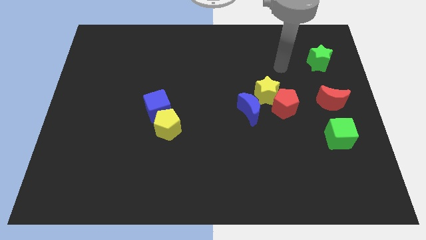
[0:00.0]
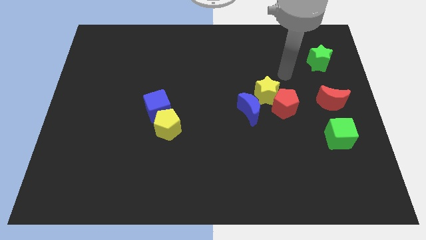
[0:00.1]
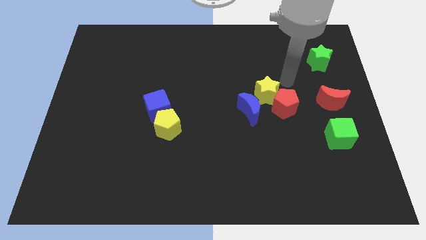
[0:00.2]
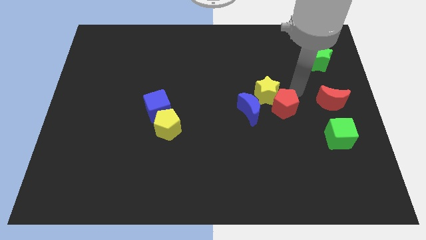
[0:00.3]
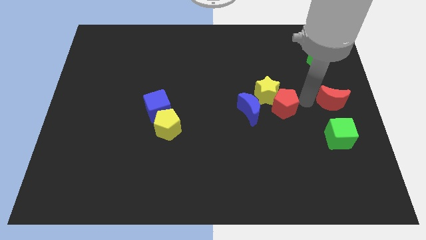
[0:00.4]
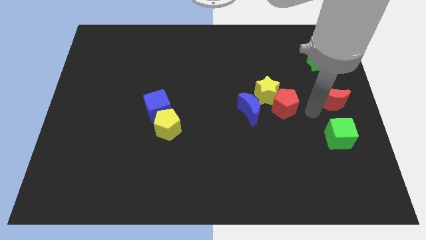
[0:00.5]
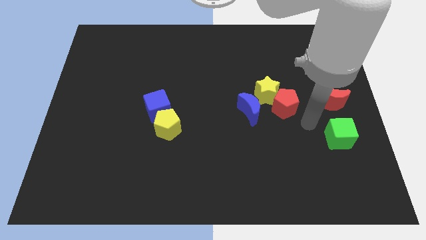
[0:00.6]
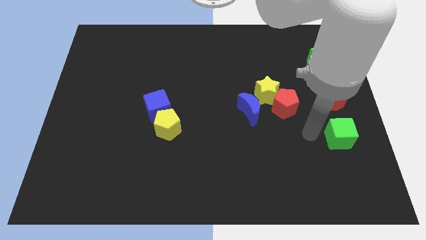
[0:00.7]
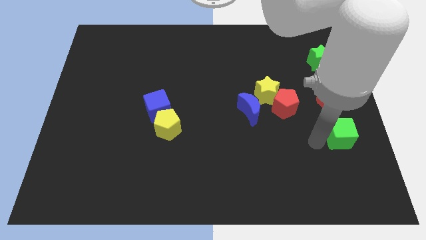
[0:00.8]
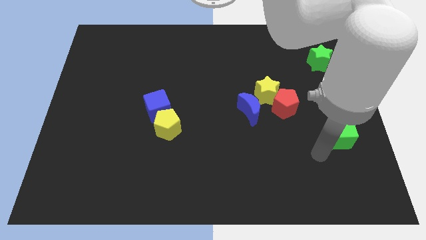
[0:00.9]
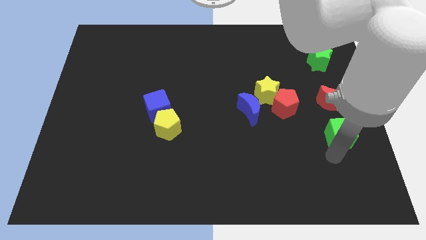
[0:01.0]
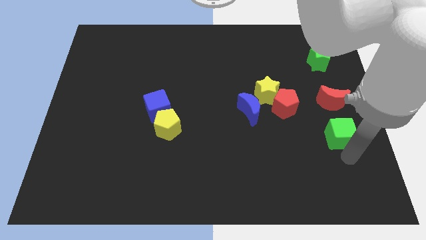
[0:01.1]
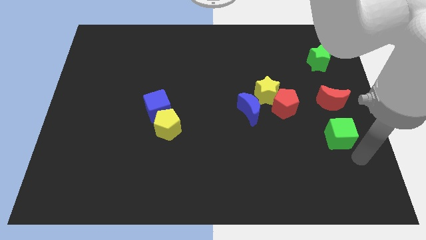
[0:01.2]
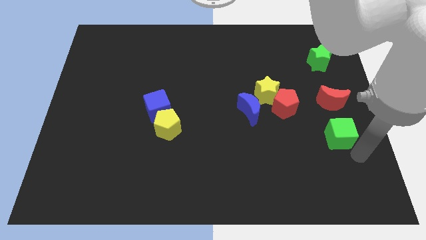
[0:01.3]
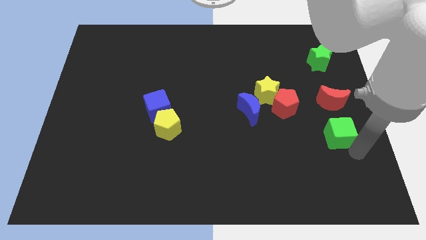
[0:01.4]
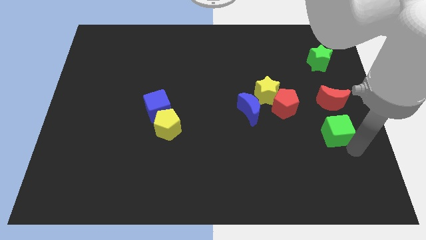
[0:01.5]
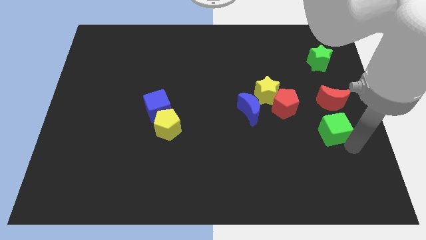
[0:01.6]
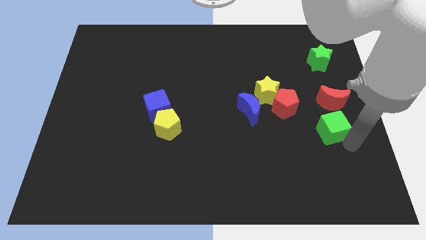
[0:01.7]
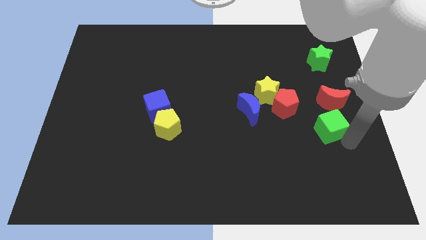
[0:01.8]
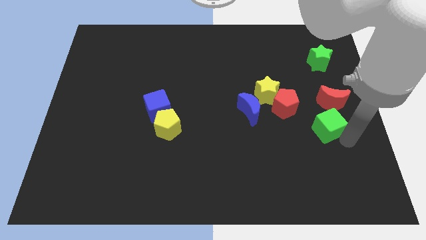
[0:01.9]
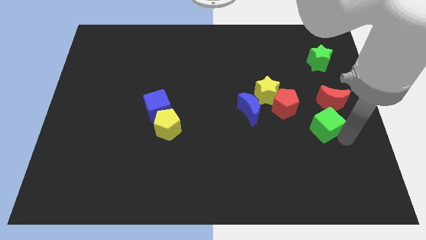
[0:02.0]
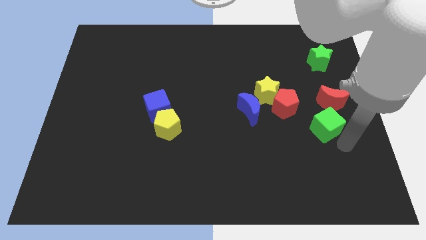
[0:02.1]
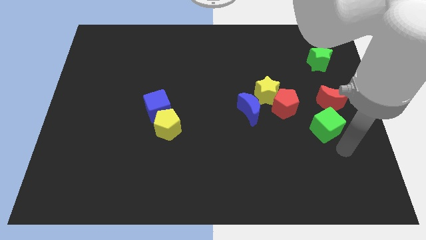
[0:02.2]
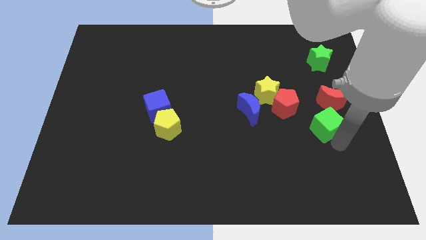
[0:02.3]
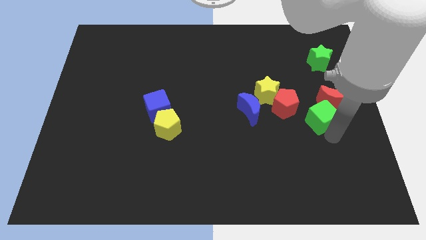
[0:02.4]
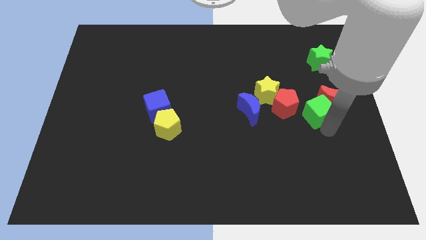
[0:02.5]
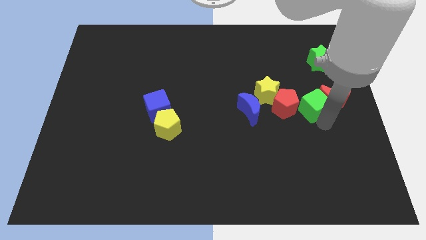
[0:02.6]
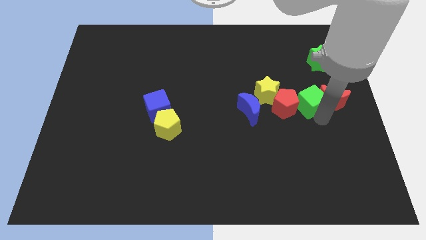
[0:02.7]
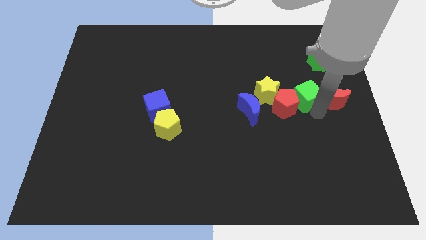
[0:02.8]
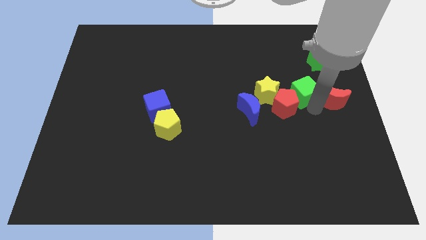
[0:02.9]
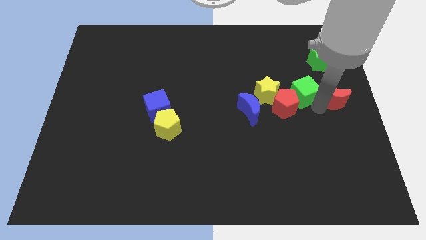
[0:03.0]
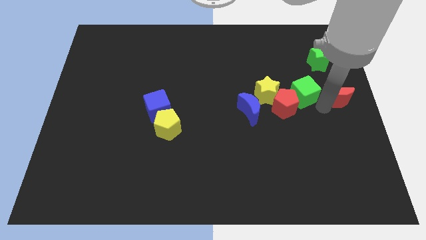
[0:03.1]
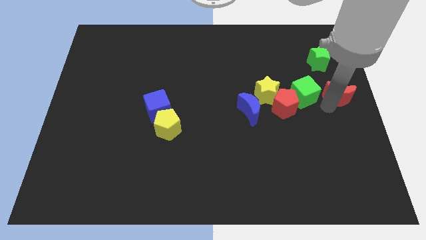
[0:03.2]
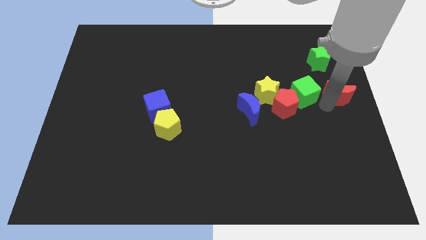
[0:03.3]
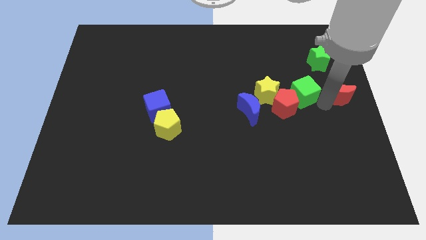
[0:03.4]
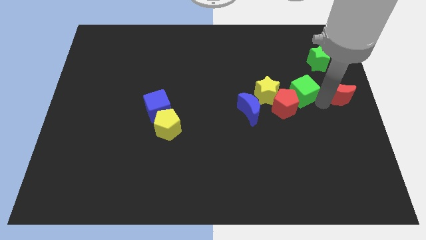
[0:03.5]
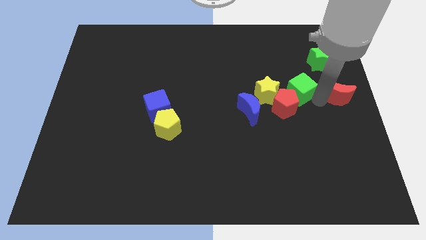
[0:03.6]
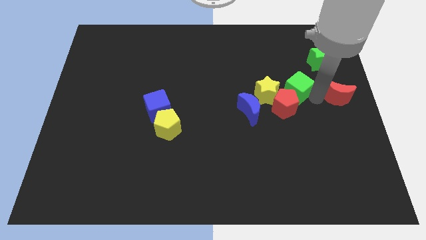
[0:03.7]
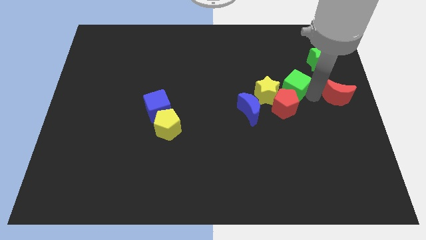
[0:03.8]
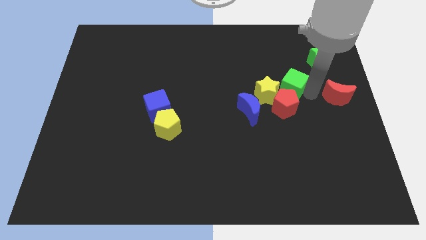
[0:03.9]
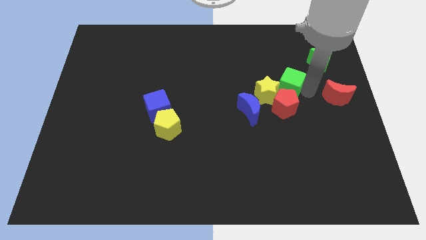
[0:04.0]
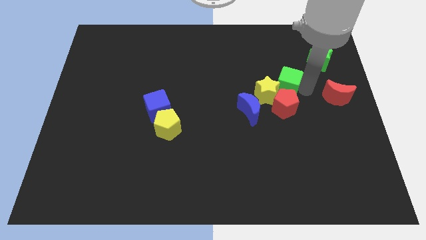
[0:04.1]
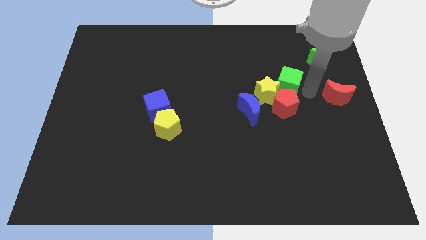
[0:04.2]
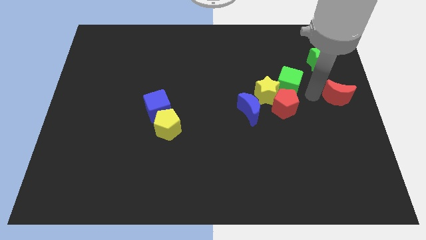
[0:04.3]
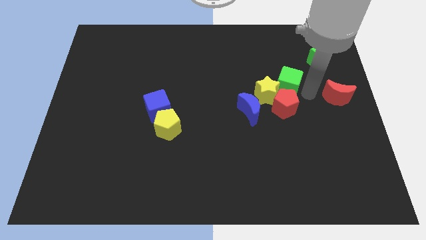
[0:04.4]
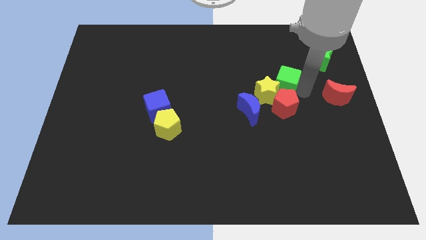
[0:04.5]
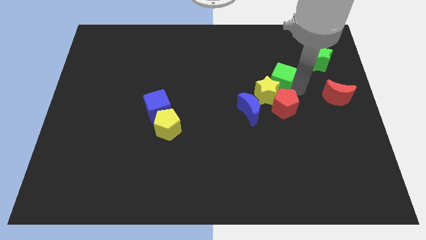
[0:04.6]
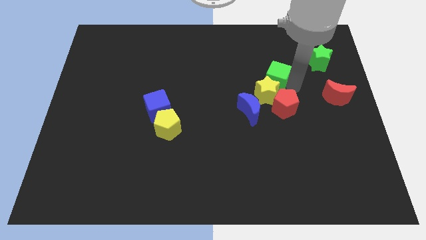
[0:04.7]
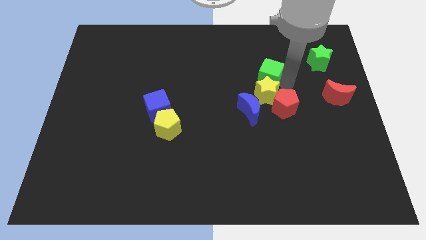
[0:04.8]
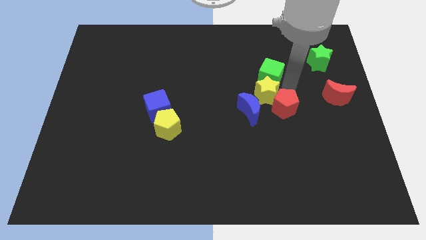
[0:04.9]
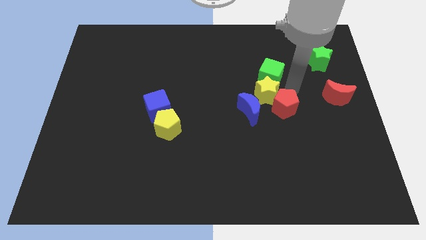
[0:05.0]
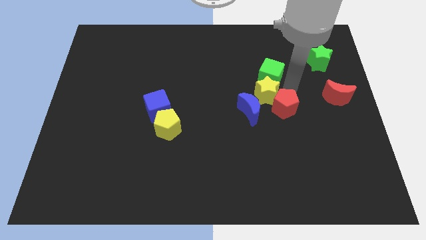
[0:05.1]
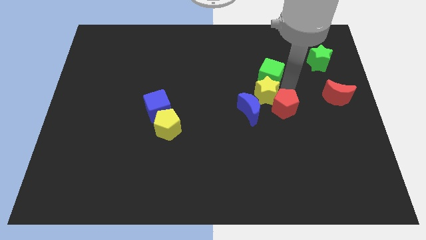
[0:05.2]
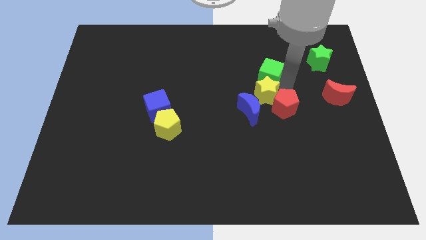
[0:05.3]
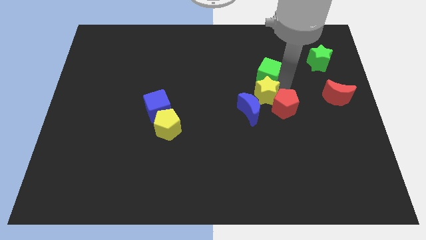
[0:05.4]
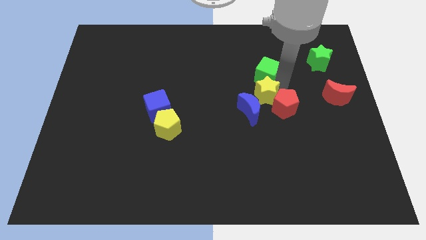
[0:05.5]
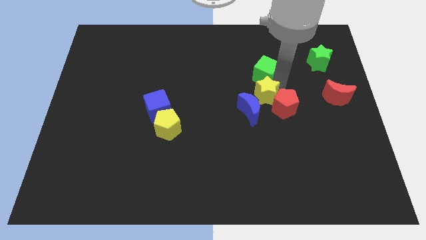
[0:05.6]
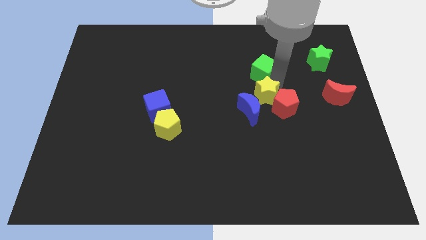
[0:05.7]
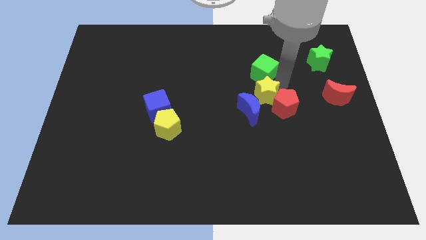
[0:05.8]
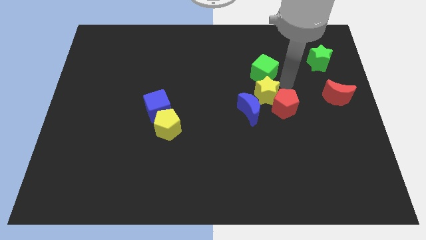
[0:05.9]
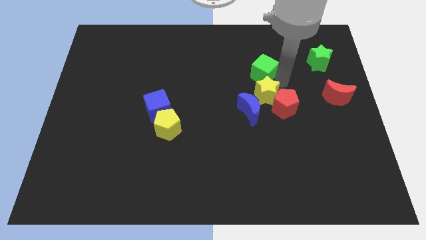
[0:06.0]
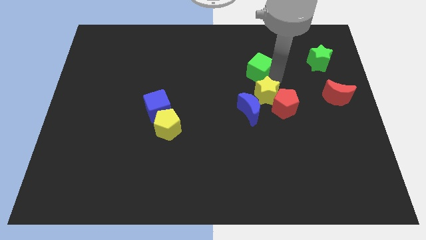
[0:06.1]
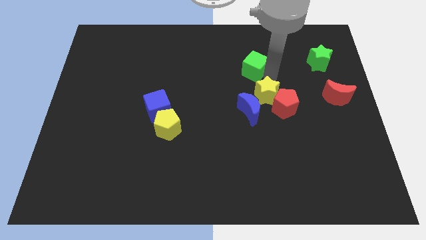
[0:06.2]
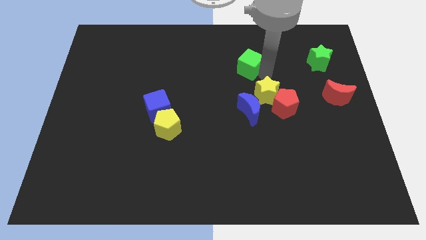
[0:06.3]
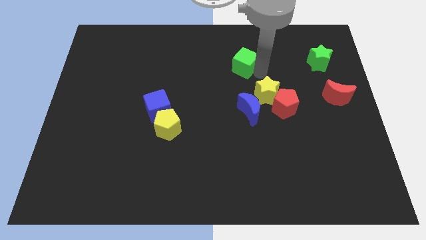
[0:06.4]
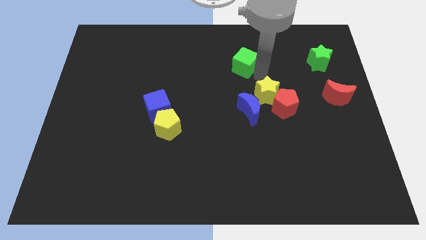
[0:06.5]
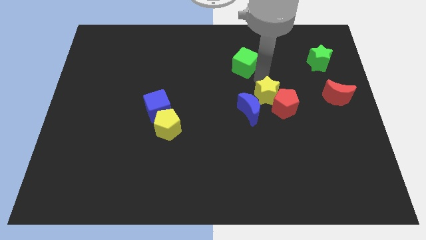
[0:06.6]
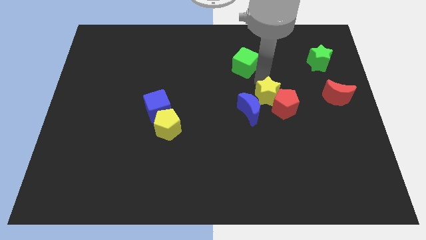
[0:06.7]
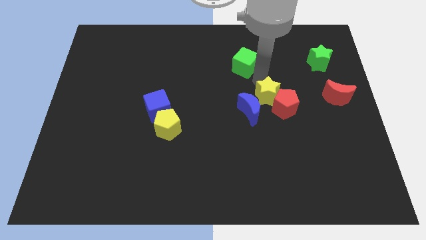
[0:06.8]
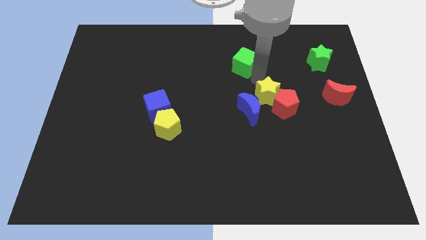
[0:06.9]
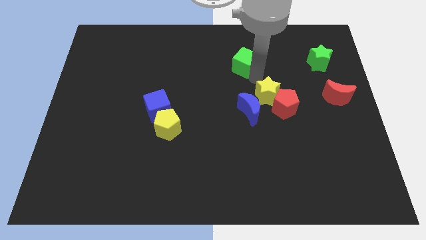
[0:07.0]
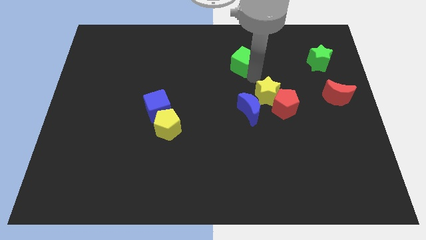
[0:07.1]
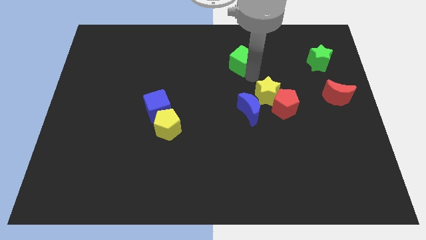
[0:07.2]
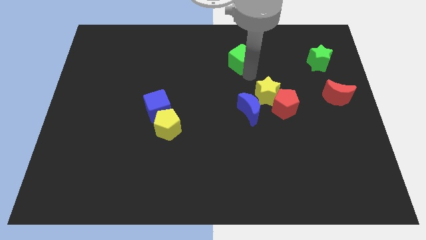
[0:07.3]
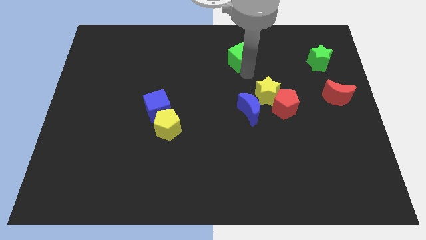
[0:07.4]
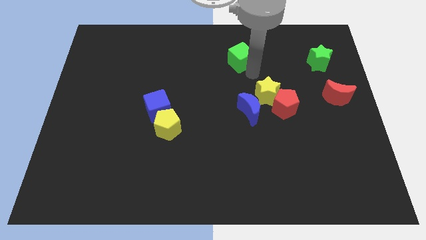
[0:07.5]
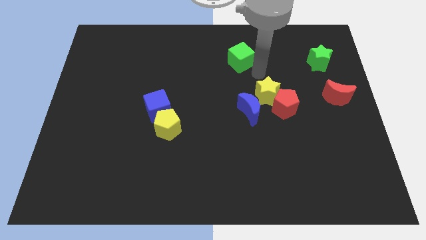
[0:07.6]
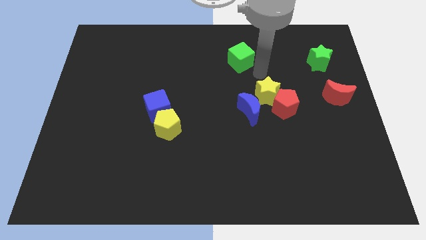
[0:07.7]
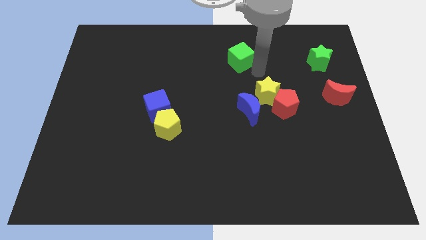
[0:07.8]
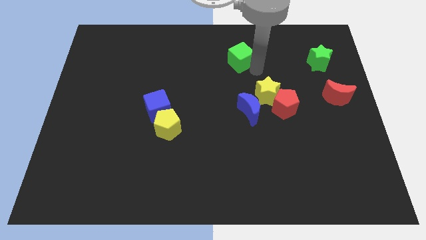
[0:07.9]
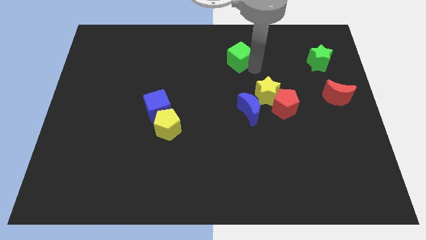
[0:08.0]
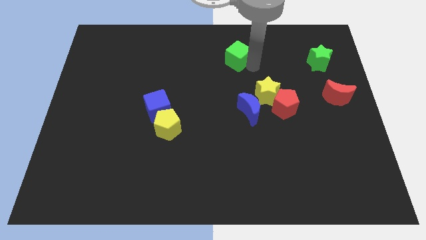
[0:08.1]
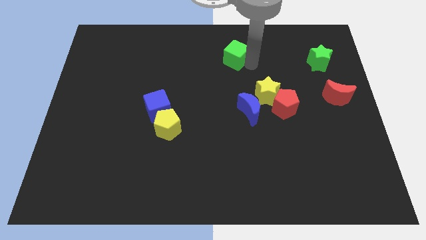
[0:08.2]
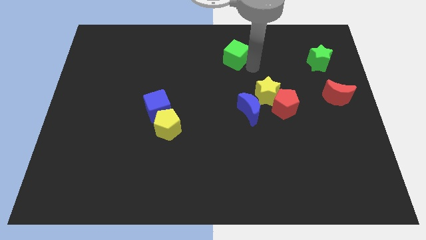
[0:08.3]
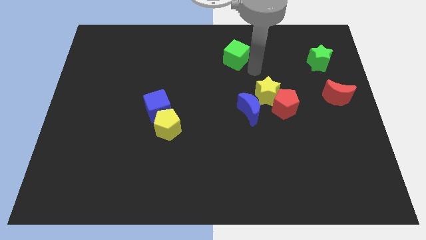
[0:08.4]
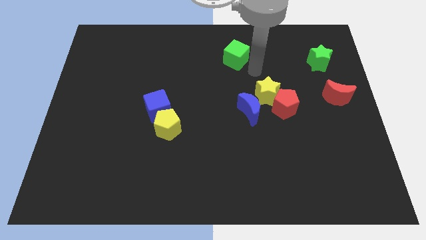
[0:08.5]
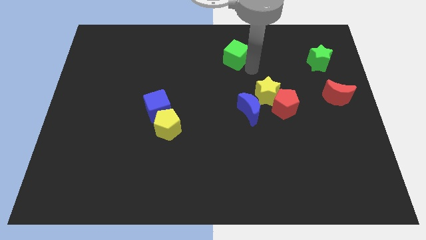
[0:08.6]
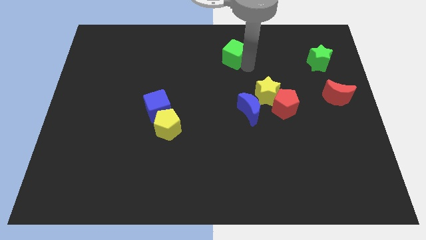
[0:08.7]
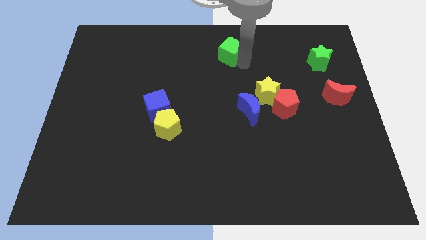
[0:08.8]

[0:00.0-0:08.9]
slide the green cube to the towards your base
